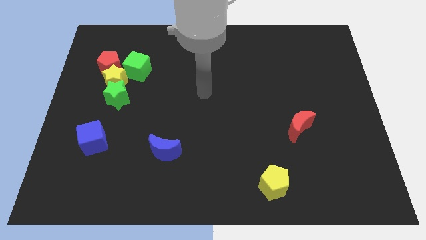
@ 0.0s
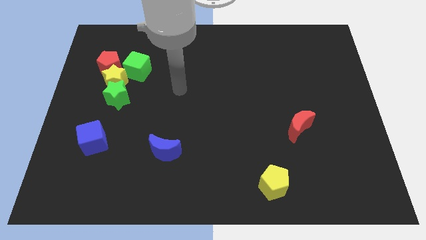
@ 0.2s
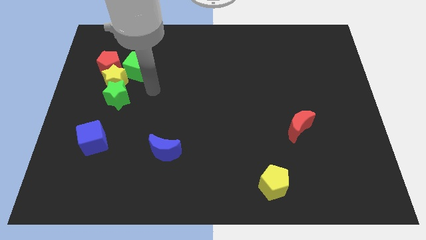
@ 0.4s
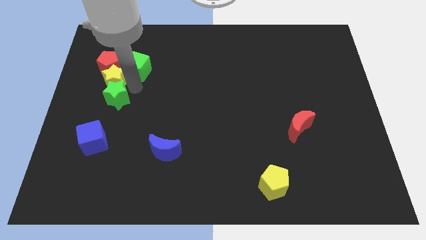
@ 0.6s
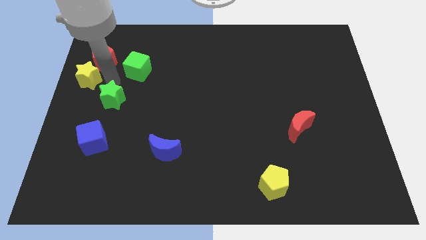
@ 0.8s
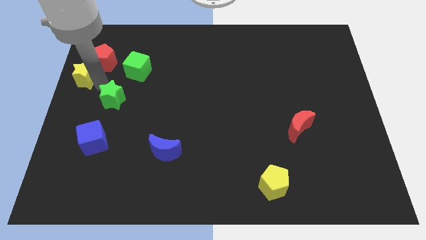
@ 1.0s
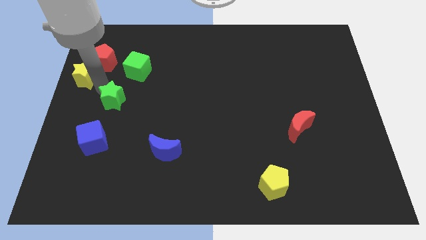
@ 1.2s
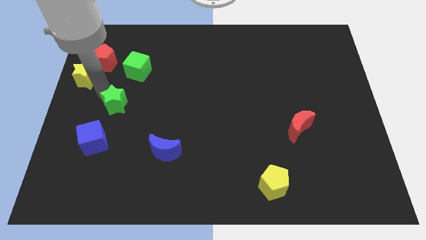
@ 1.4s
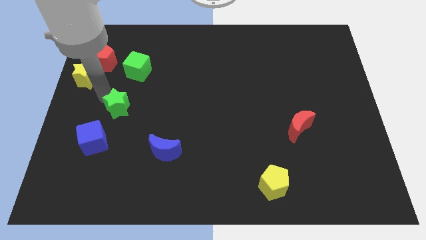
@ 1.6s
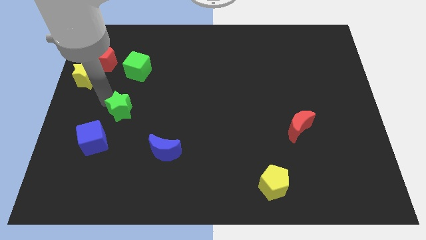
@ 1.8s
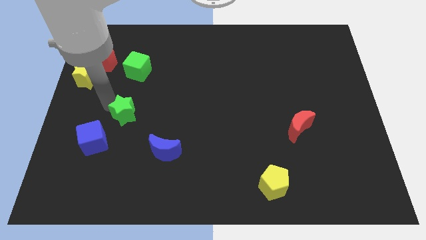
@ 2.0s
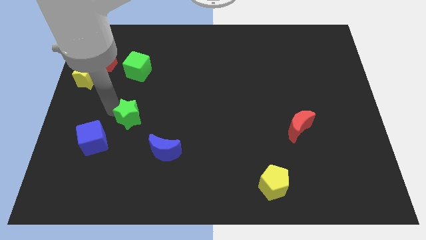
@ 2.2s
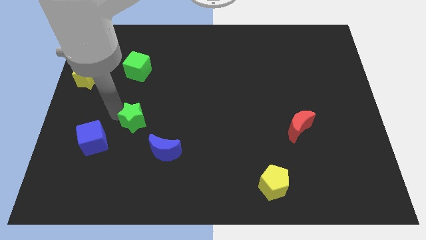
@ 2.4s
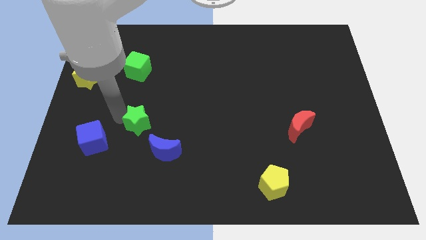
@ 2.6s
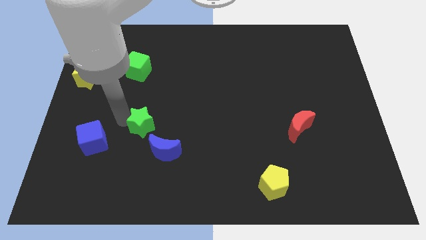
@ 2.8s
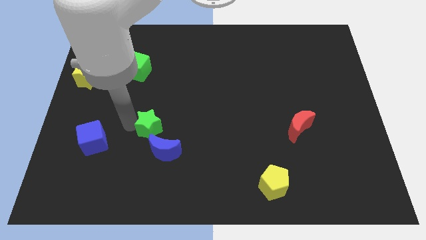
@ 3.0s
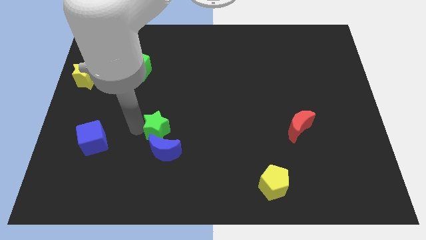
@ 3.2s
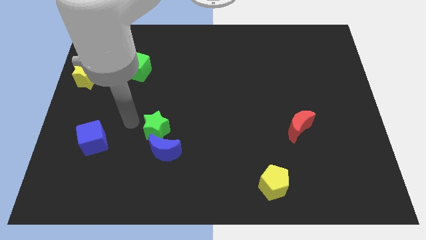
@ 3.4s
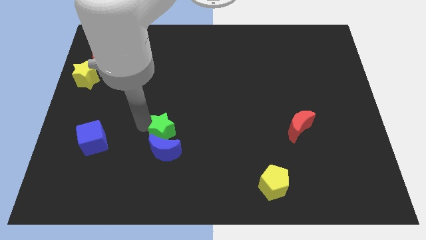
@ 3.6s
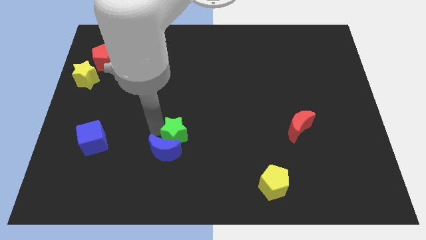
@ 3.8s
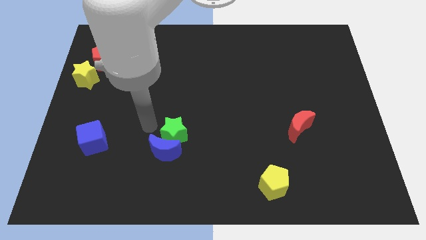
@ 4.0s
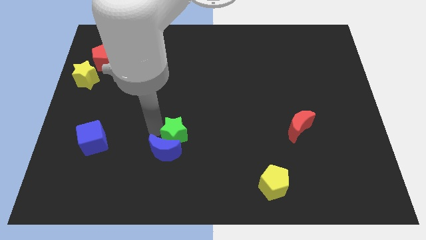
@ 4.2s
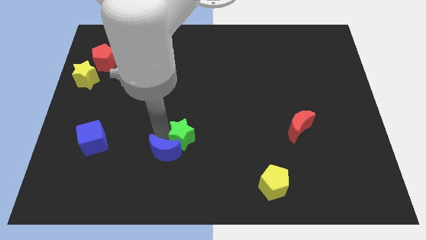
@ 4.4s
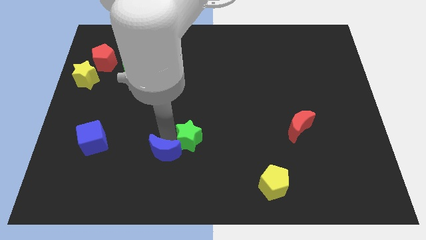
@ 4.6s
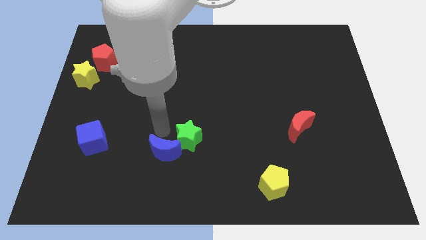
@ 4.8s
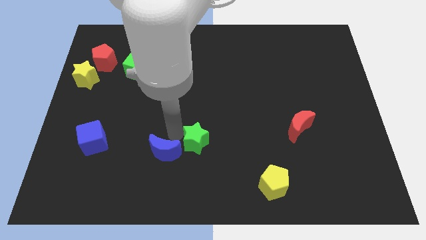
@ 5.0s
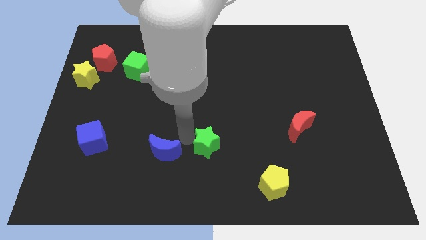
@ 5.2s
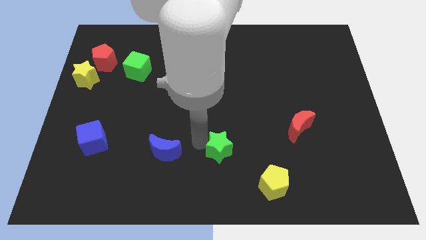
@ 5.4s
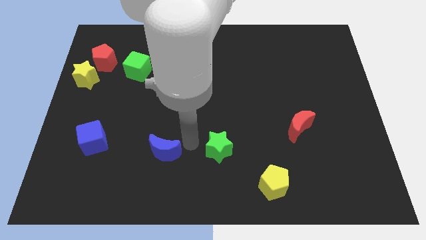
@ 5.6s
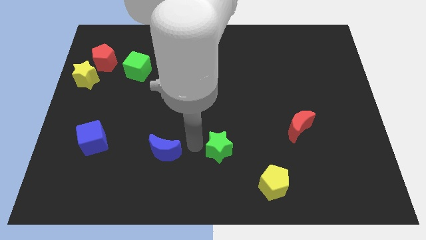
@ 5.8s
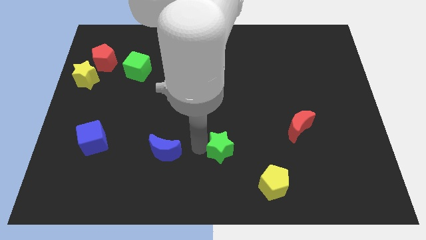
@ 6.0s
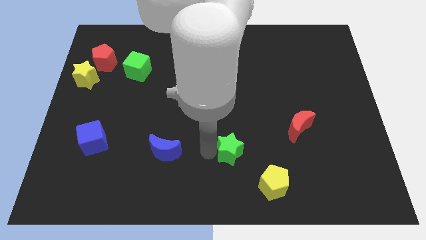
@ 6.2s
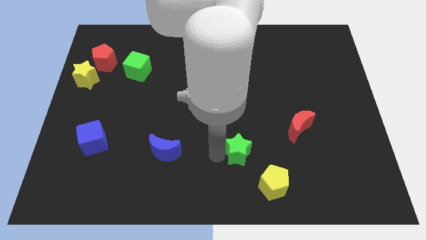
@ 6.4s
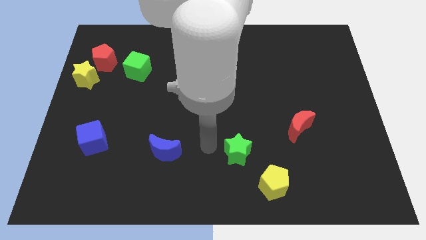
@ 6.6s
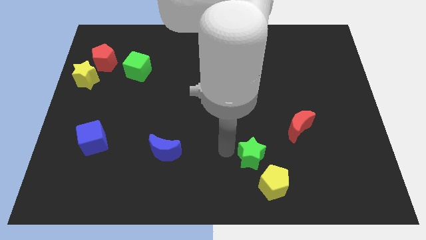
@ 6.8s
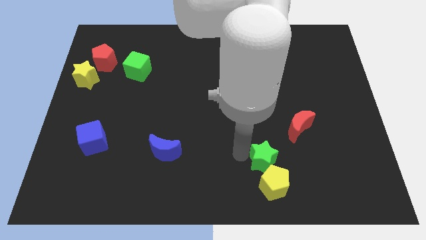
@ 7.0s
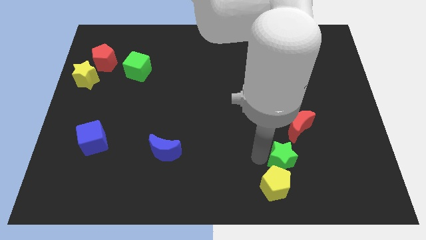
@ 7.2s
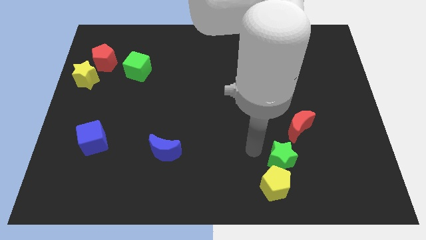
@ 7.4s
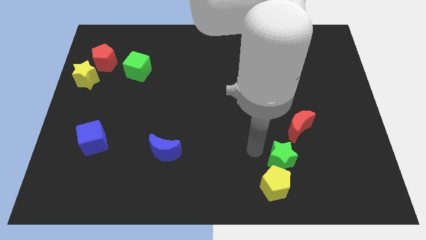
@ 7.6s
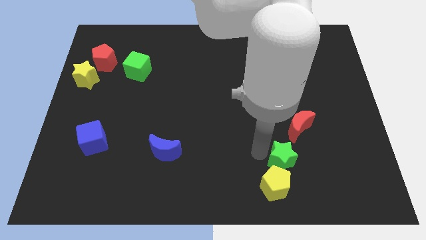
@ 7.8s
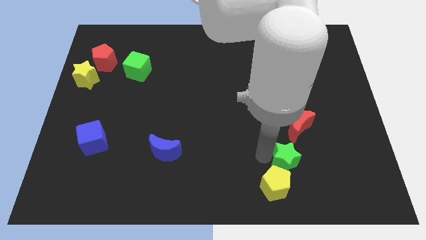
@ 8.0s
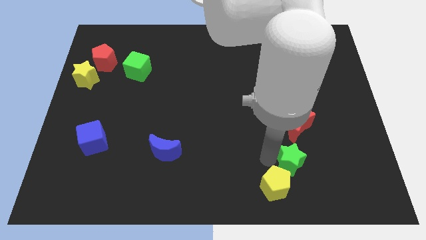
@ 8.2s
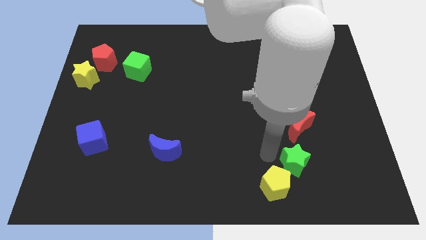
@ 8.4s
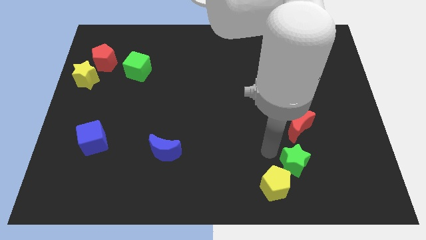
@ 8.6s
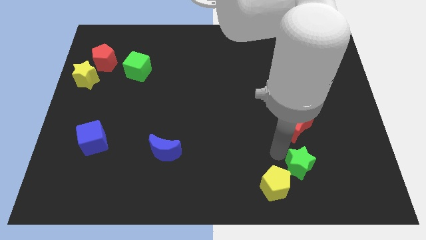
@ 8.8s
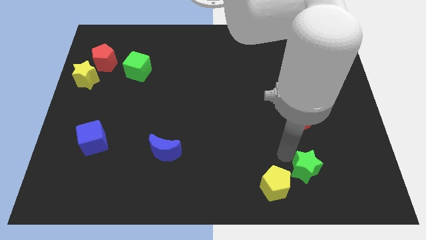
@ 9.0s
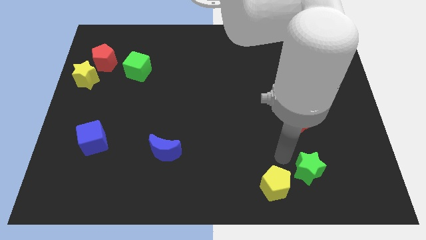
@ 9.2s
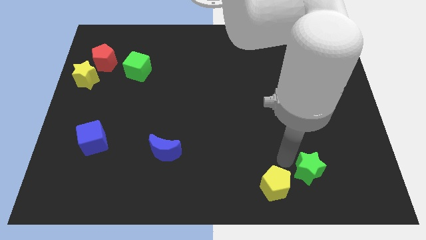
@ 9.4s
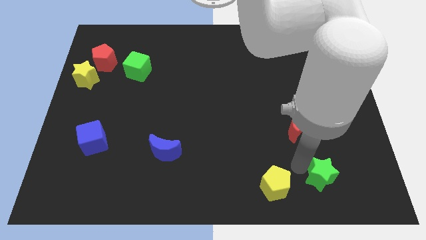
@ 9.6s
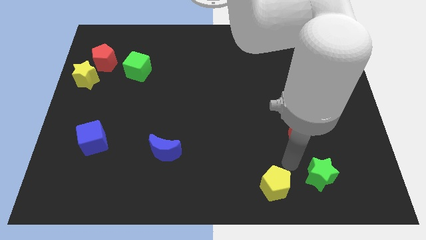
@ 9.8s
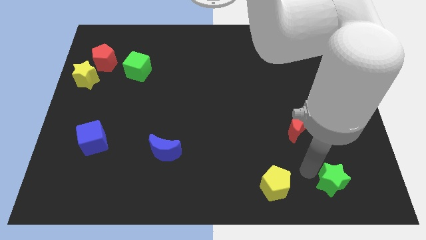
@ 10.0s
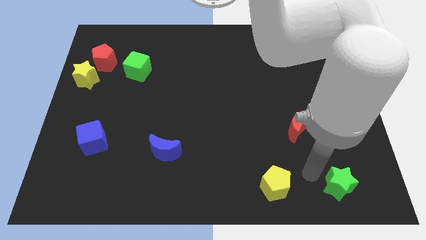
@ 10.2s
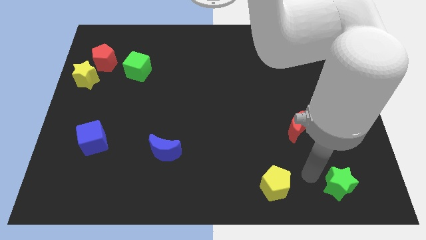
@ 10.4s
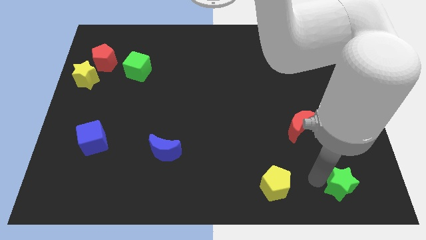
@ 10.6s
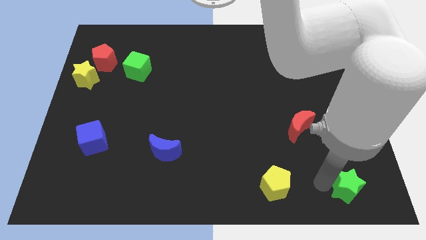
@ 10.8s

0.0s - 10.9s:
move the green star to the bottom right of the board

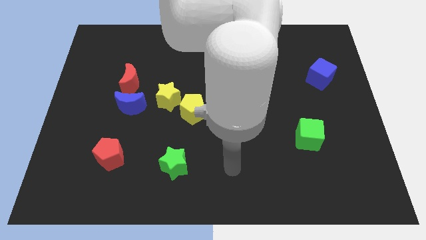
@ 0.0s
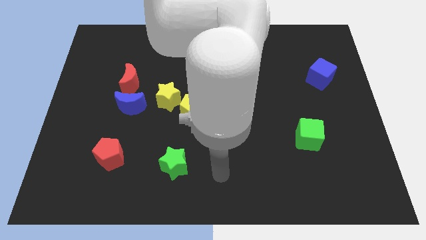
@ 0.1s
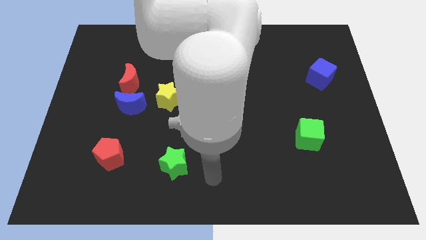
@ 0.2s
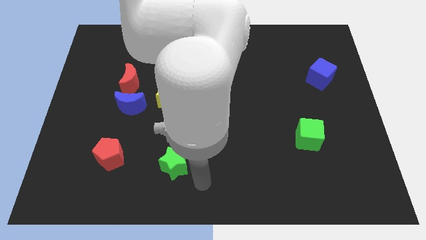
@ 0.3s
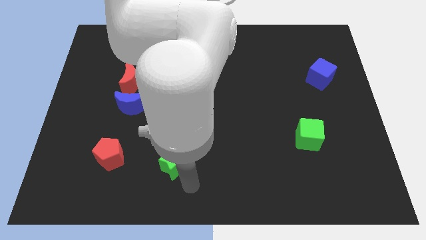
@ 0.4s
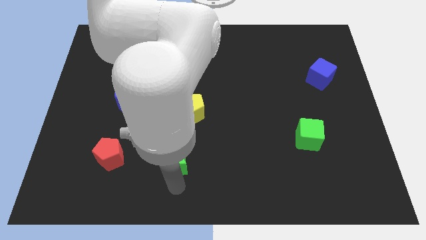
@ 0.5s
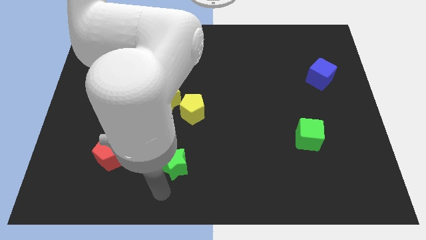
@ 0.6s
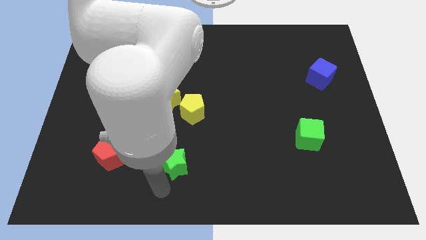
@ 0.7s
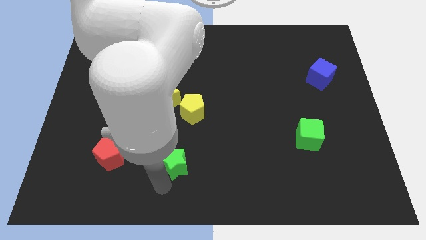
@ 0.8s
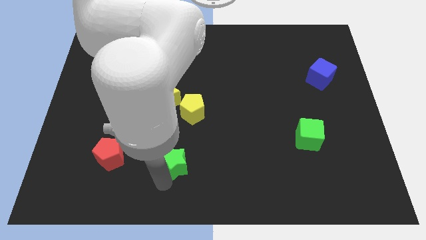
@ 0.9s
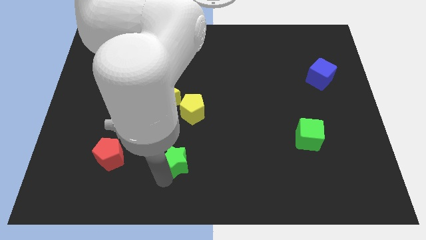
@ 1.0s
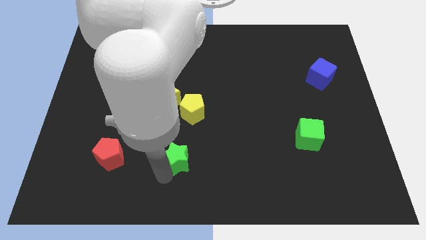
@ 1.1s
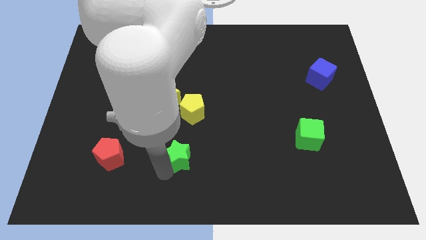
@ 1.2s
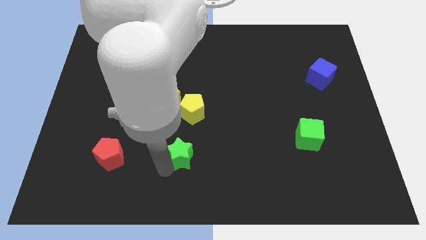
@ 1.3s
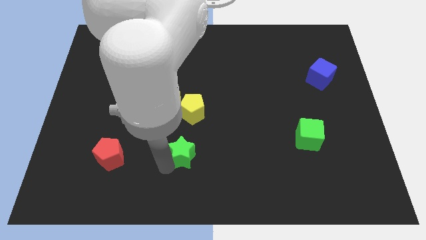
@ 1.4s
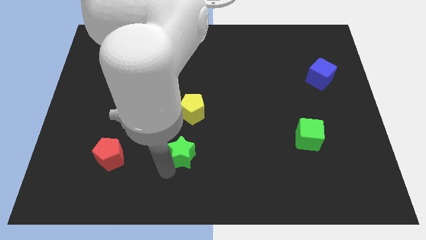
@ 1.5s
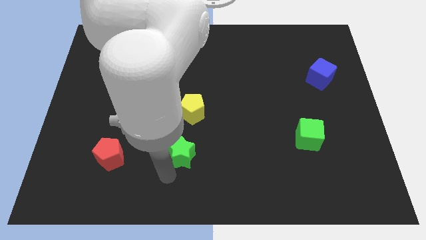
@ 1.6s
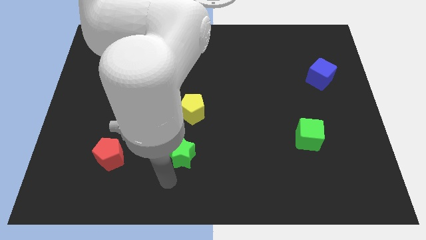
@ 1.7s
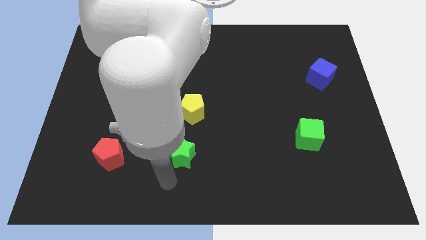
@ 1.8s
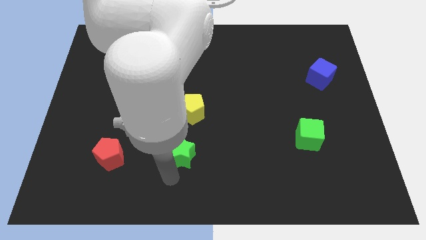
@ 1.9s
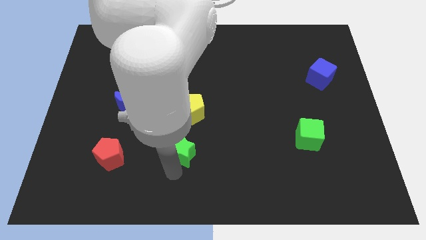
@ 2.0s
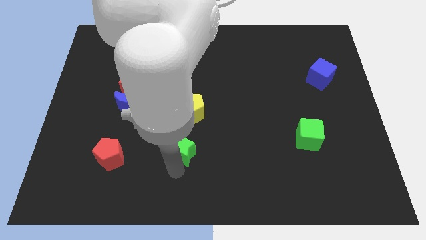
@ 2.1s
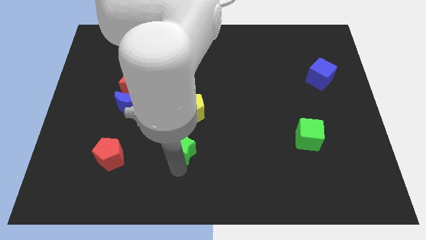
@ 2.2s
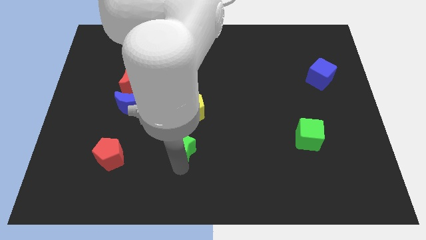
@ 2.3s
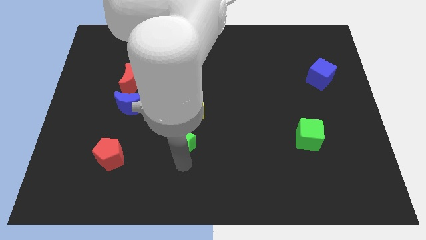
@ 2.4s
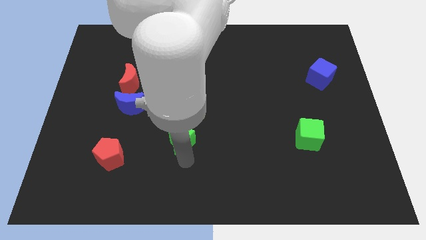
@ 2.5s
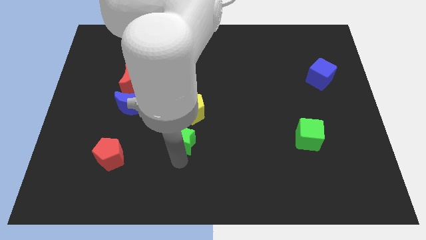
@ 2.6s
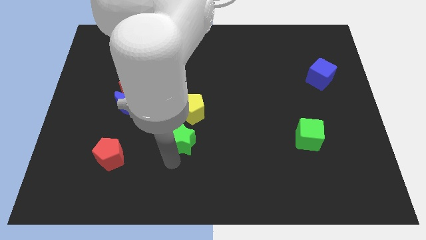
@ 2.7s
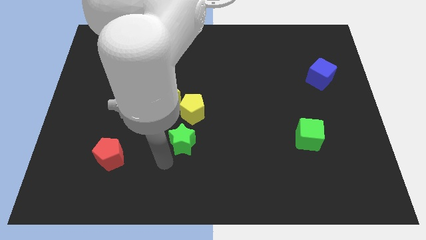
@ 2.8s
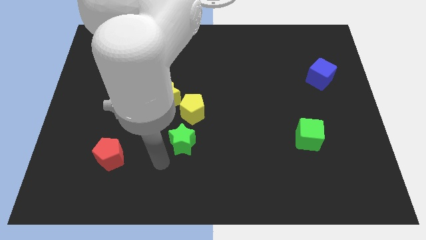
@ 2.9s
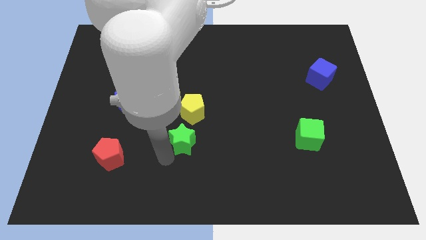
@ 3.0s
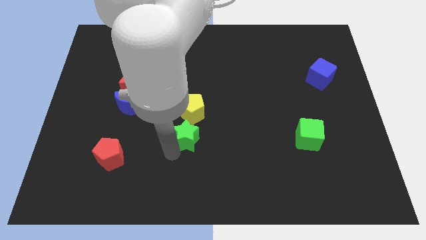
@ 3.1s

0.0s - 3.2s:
put the green star to the middle of the board
